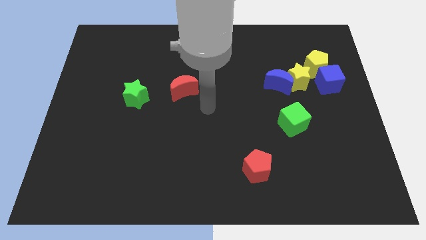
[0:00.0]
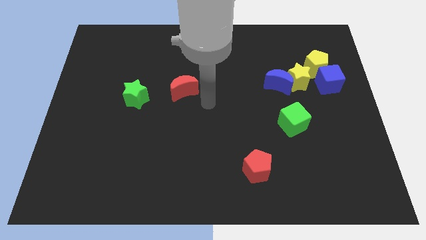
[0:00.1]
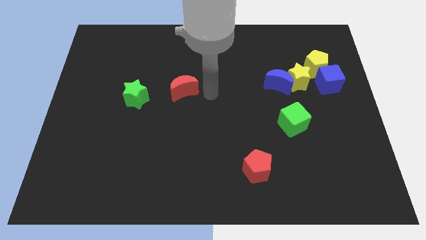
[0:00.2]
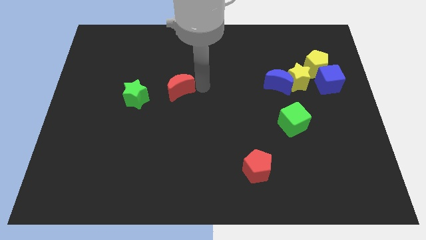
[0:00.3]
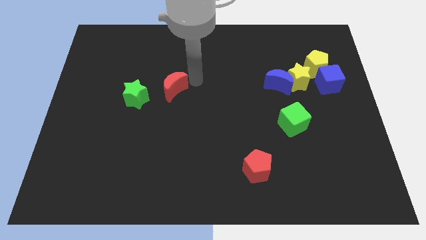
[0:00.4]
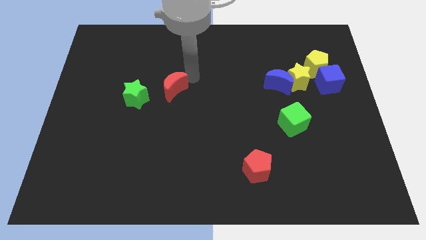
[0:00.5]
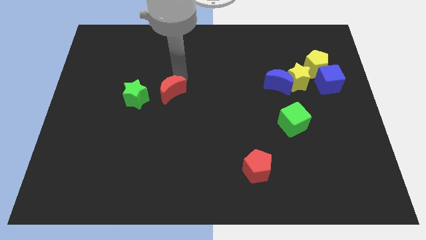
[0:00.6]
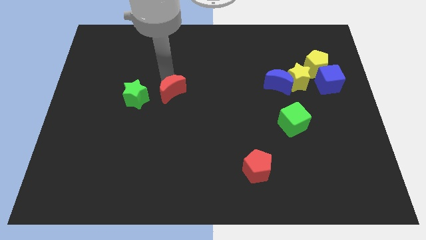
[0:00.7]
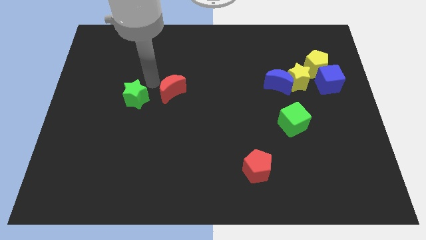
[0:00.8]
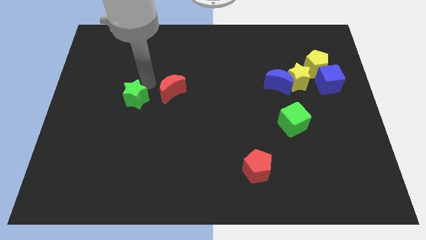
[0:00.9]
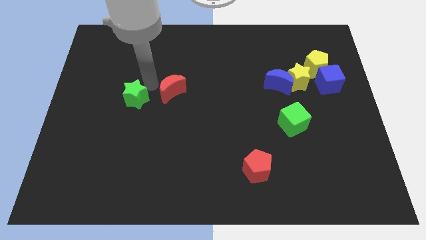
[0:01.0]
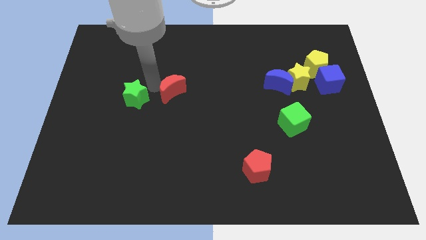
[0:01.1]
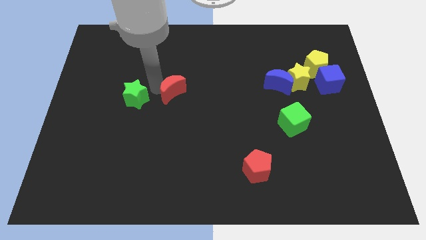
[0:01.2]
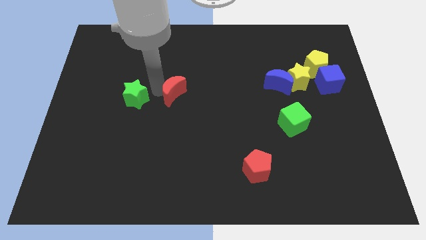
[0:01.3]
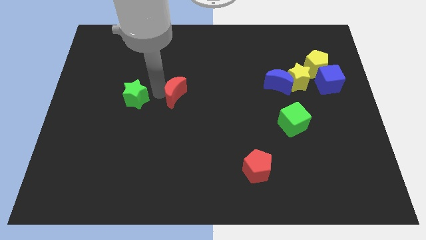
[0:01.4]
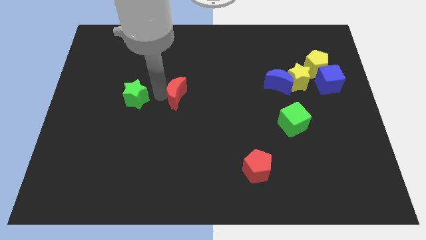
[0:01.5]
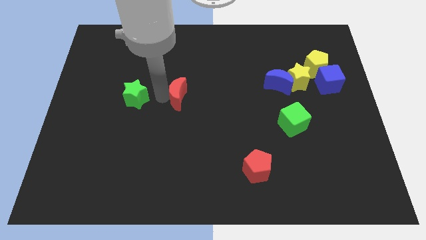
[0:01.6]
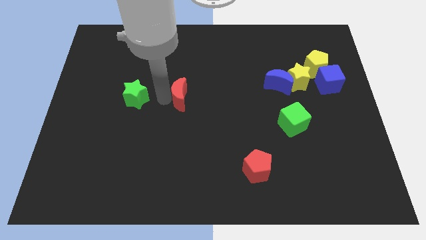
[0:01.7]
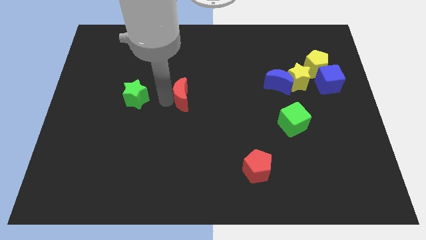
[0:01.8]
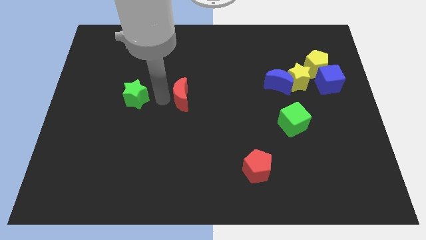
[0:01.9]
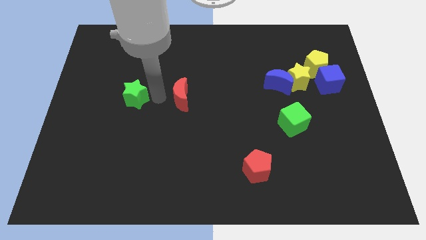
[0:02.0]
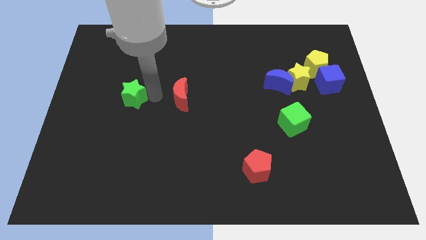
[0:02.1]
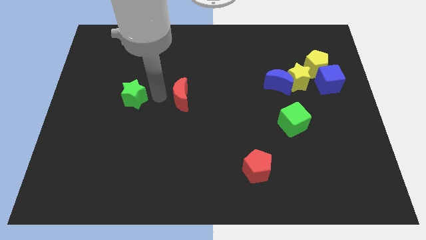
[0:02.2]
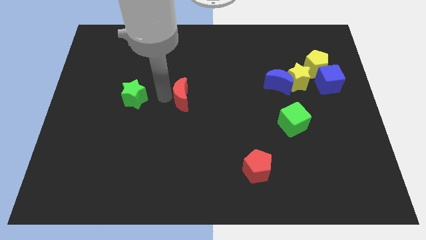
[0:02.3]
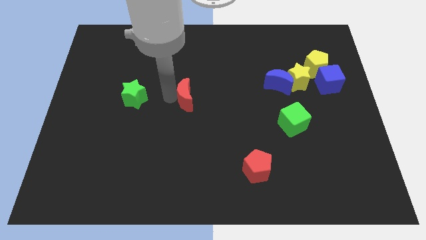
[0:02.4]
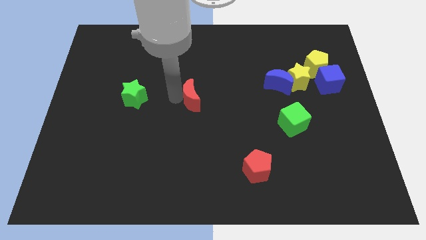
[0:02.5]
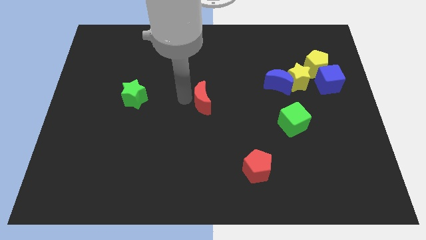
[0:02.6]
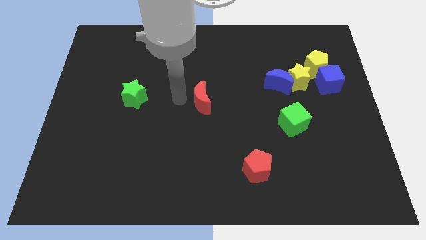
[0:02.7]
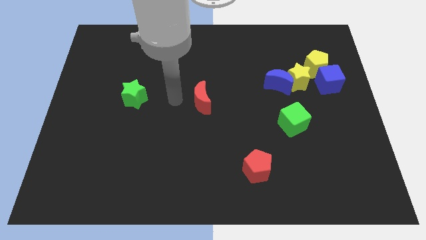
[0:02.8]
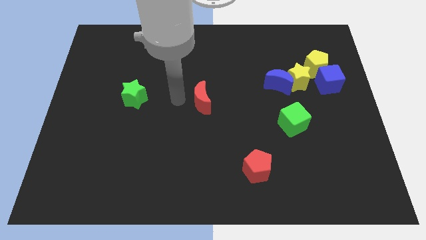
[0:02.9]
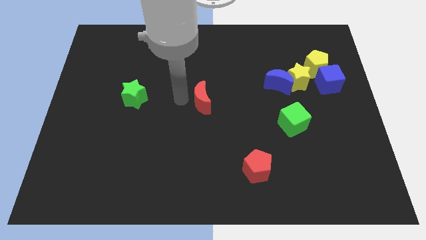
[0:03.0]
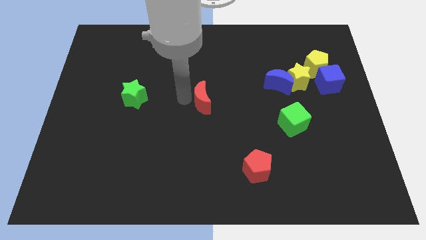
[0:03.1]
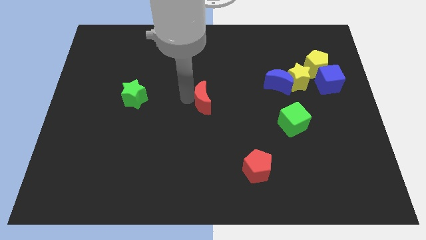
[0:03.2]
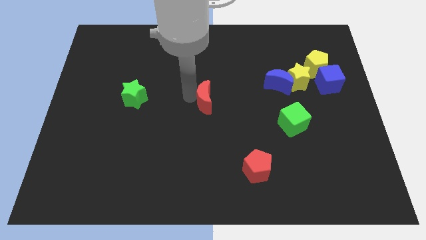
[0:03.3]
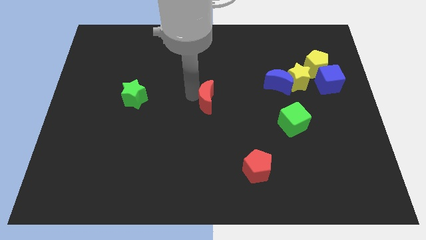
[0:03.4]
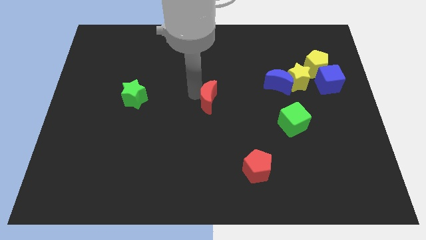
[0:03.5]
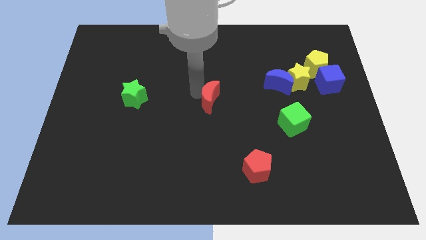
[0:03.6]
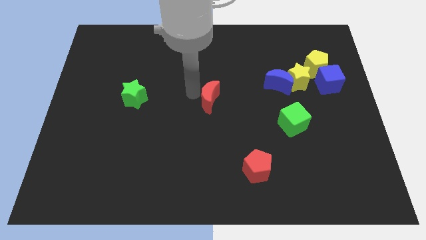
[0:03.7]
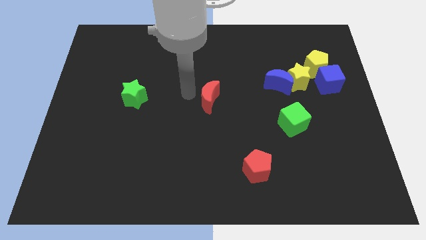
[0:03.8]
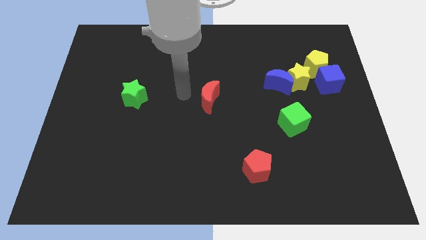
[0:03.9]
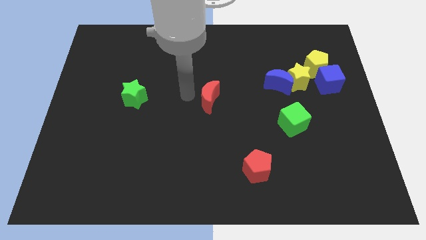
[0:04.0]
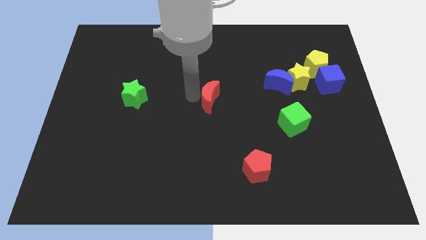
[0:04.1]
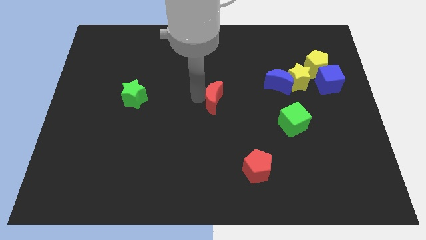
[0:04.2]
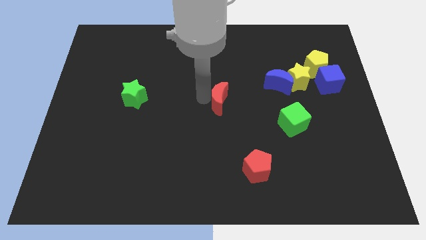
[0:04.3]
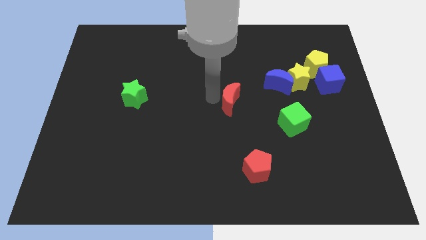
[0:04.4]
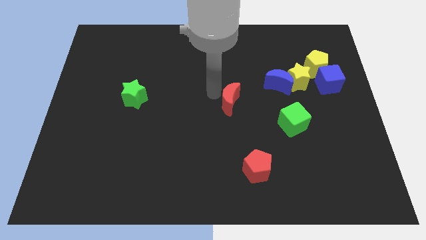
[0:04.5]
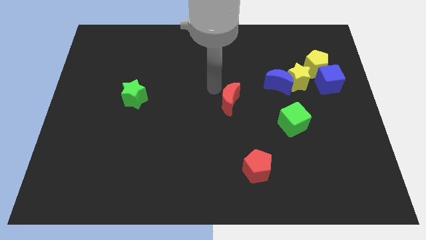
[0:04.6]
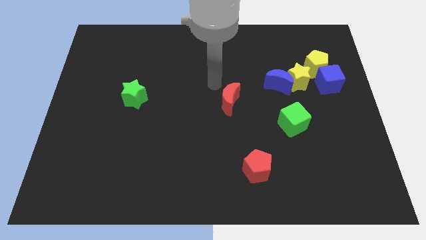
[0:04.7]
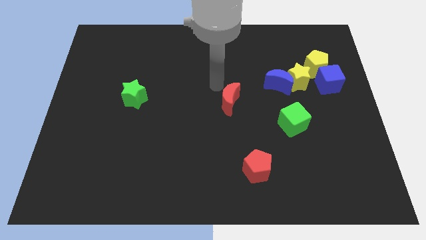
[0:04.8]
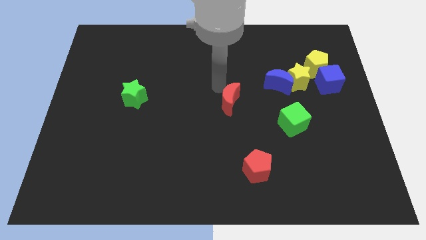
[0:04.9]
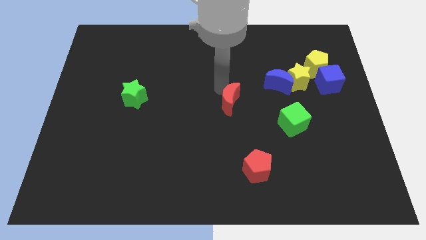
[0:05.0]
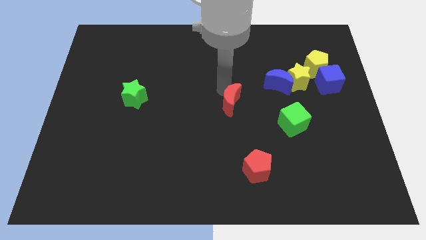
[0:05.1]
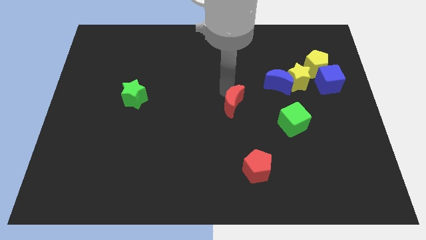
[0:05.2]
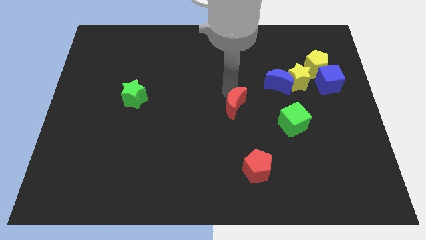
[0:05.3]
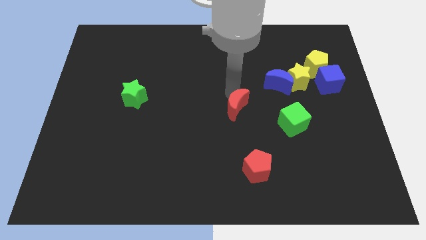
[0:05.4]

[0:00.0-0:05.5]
slide the red moon to the left side of the green cube

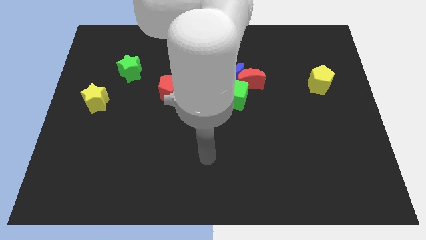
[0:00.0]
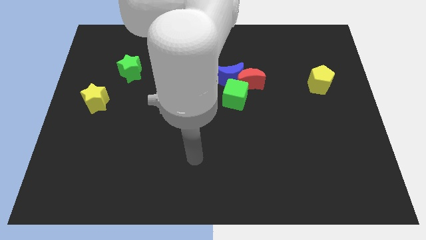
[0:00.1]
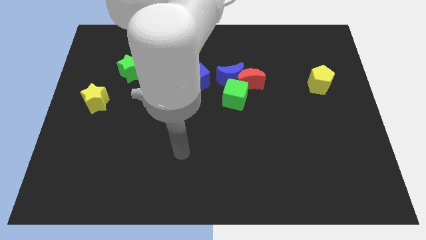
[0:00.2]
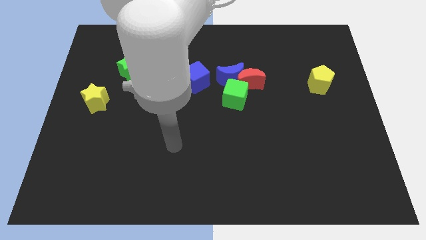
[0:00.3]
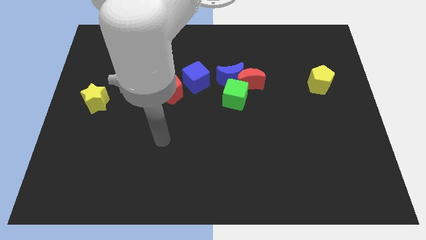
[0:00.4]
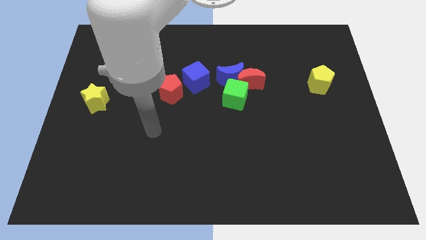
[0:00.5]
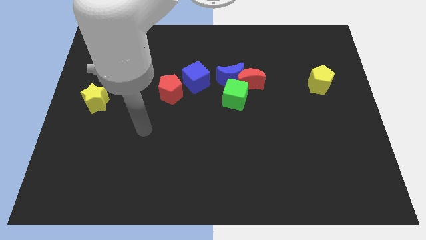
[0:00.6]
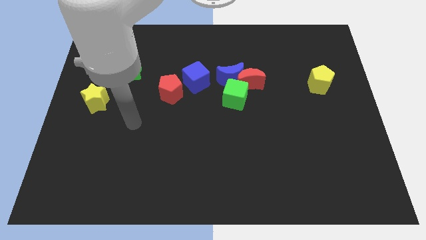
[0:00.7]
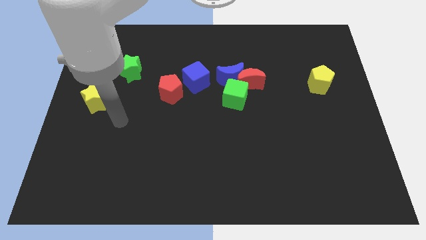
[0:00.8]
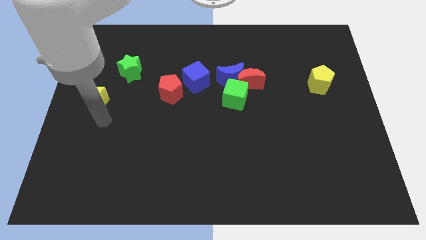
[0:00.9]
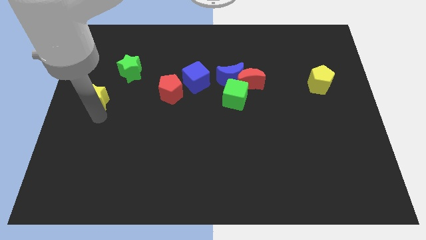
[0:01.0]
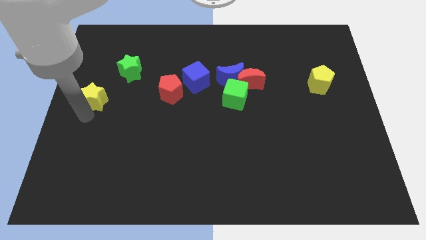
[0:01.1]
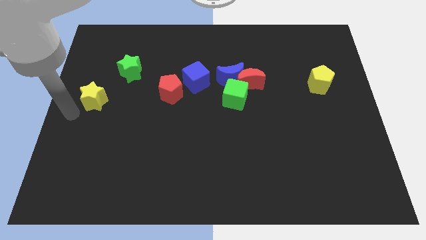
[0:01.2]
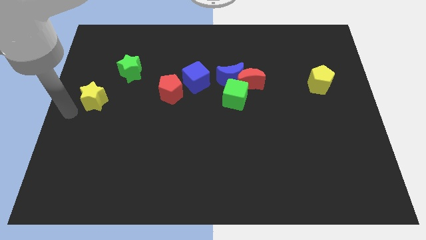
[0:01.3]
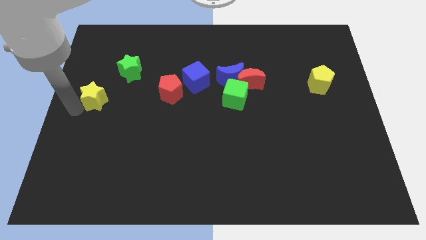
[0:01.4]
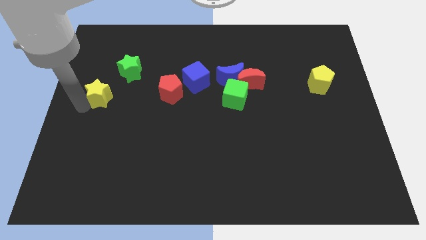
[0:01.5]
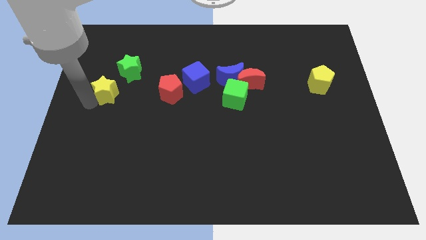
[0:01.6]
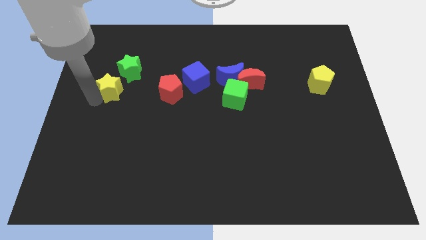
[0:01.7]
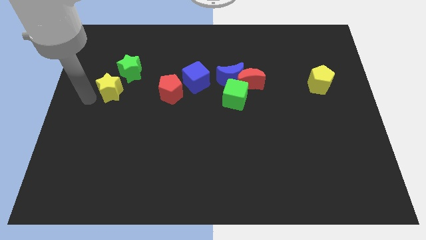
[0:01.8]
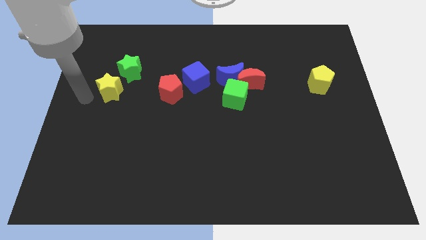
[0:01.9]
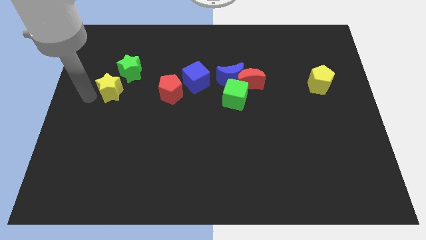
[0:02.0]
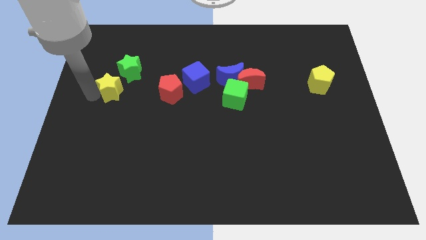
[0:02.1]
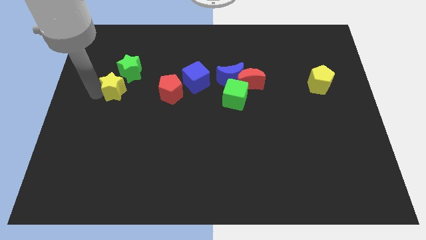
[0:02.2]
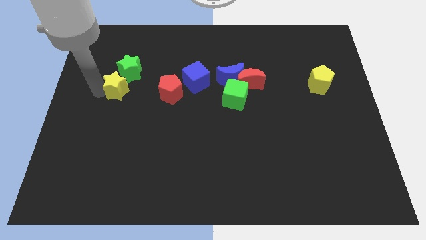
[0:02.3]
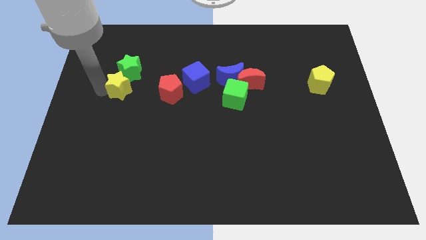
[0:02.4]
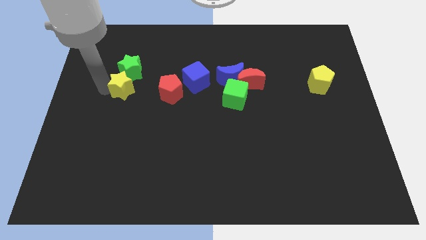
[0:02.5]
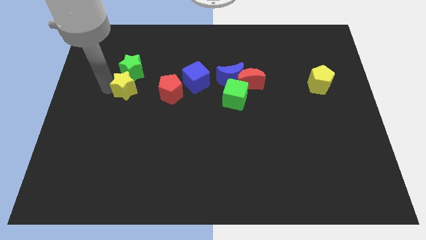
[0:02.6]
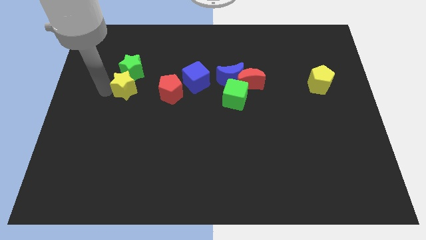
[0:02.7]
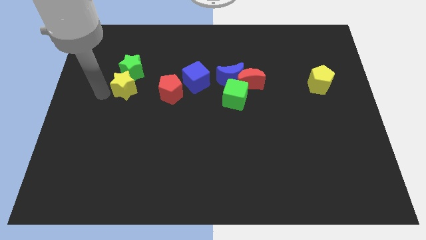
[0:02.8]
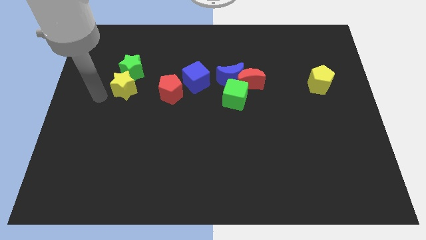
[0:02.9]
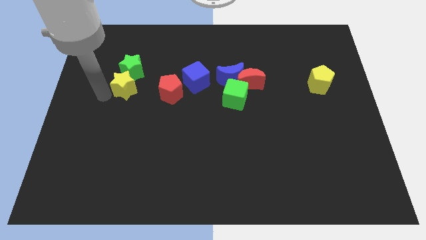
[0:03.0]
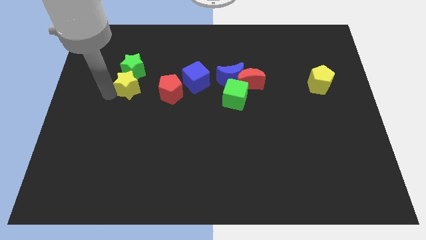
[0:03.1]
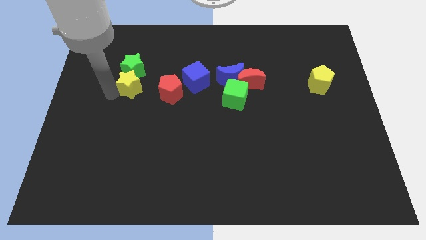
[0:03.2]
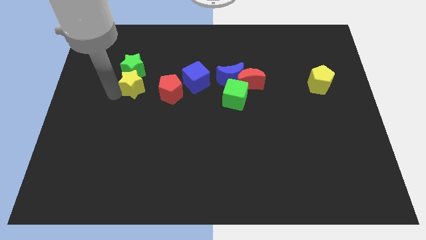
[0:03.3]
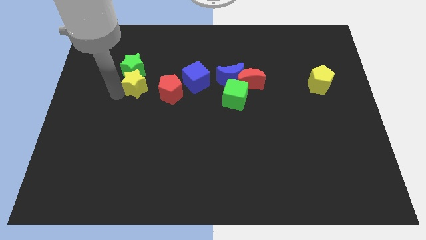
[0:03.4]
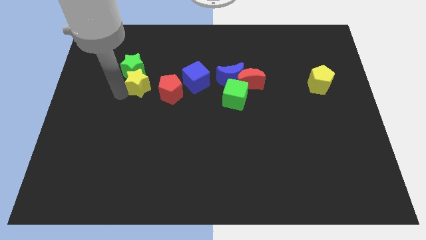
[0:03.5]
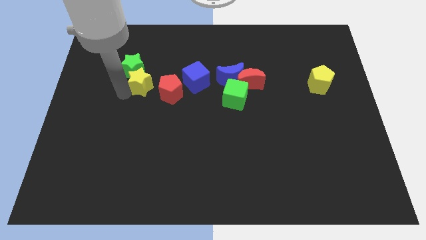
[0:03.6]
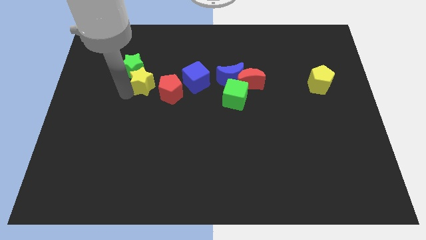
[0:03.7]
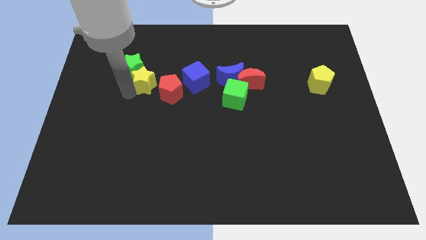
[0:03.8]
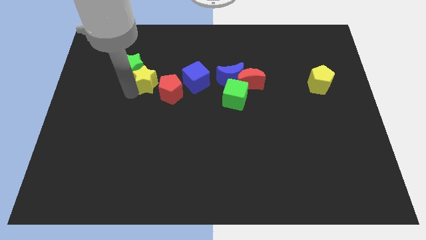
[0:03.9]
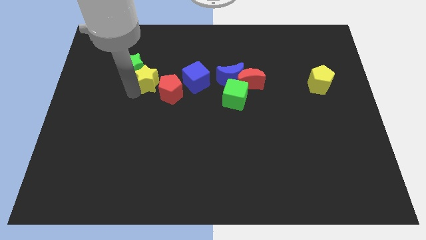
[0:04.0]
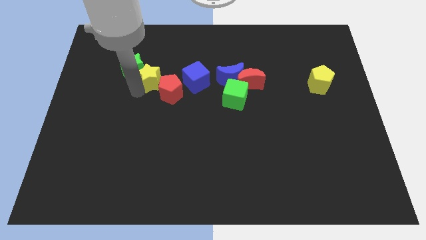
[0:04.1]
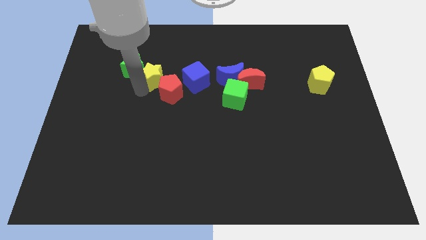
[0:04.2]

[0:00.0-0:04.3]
move the yellow star to the top of the red pentagon
